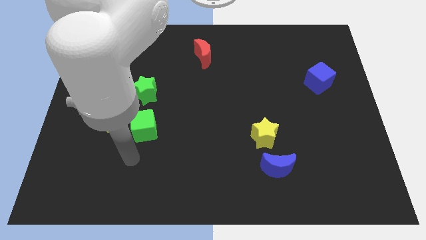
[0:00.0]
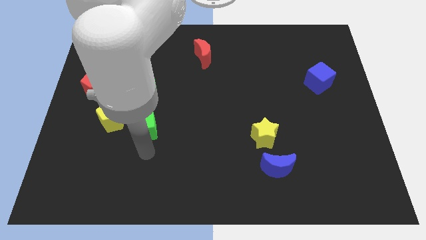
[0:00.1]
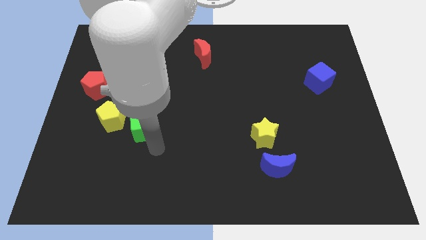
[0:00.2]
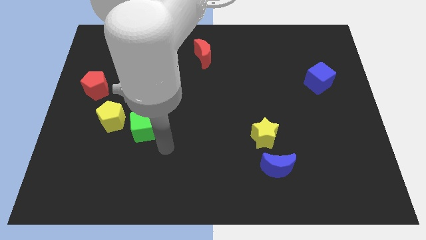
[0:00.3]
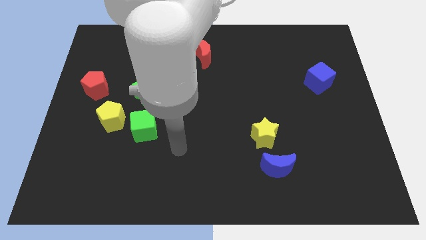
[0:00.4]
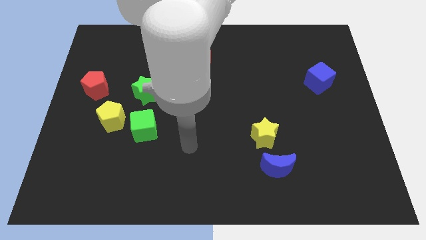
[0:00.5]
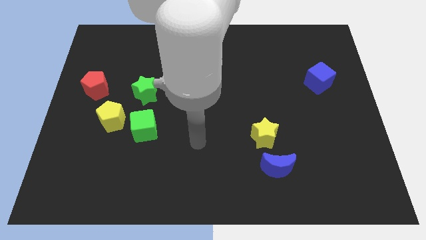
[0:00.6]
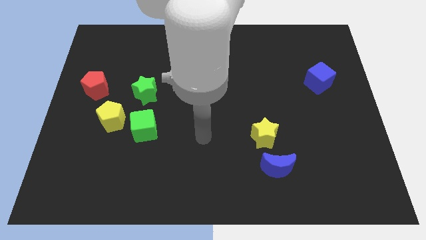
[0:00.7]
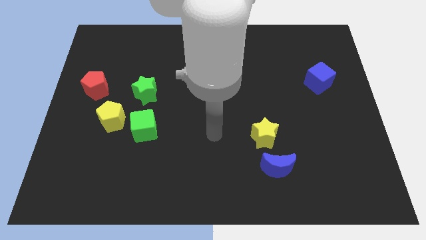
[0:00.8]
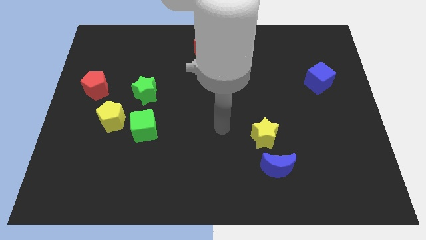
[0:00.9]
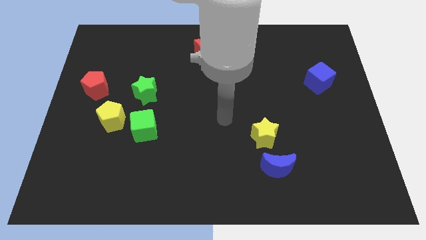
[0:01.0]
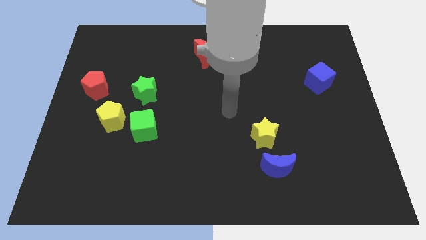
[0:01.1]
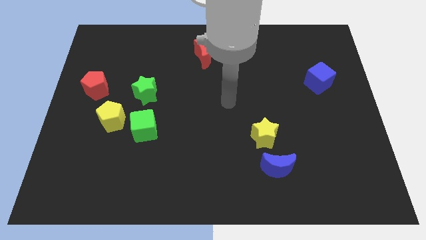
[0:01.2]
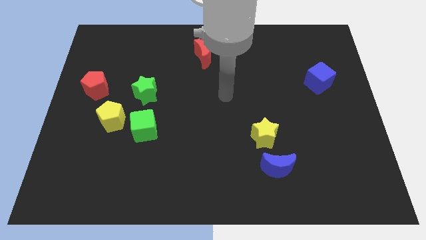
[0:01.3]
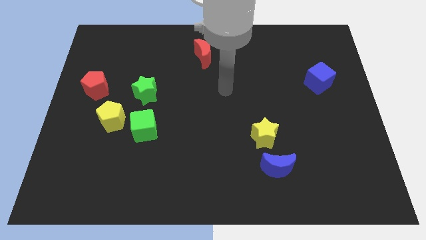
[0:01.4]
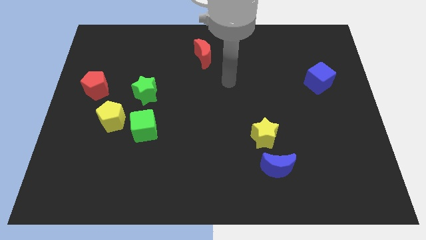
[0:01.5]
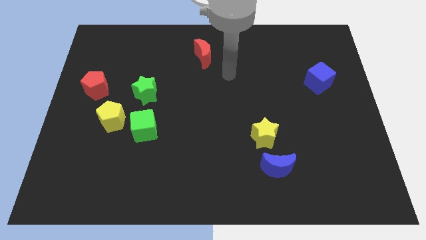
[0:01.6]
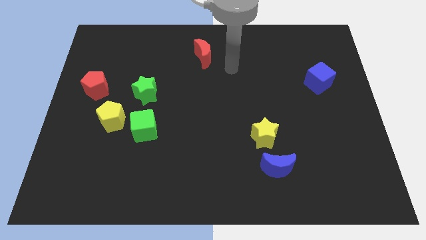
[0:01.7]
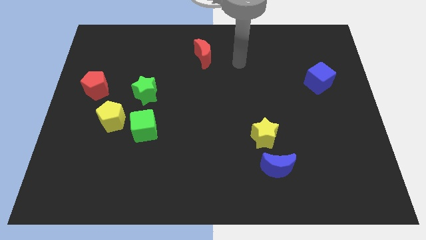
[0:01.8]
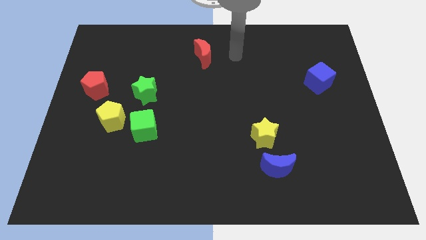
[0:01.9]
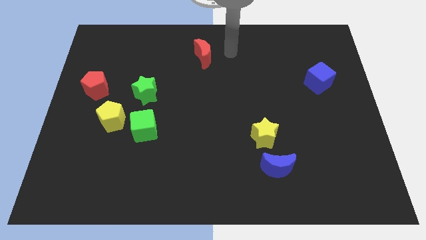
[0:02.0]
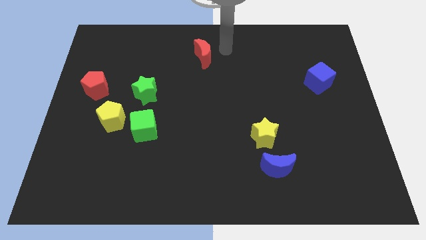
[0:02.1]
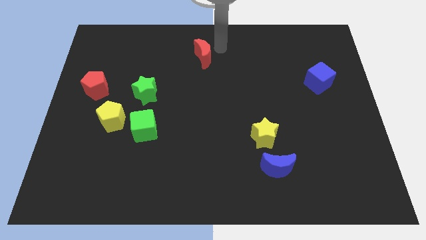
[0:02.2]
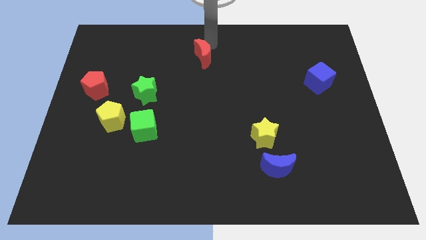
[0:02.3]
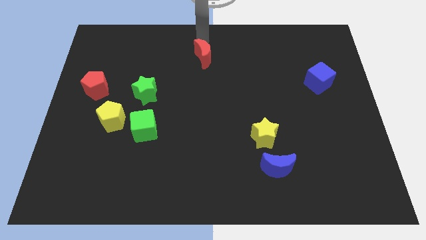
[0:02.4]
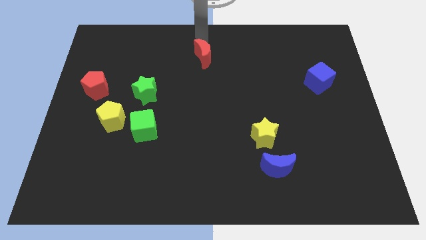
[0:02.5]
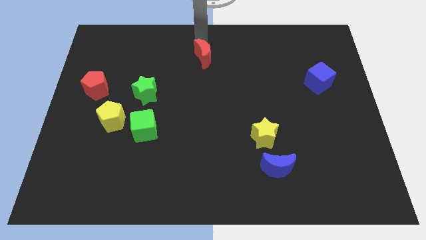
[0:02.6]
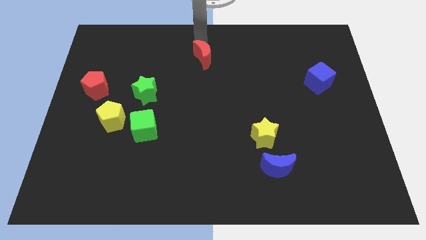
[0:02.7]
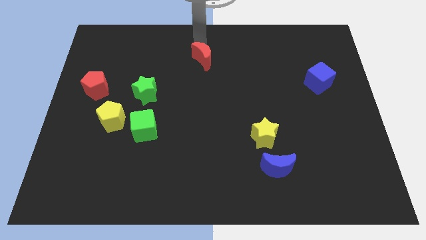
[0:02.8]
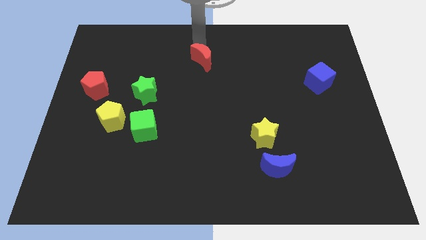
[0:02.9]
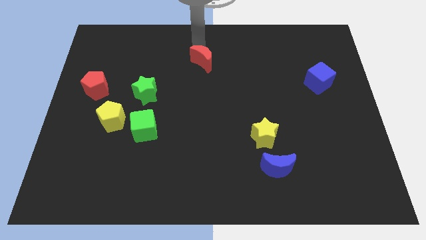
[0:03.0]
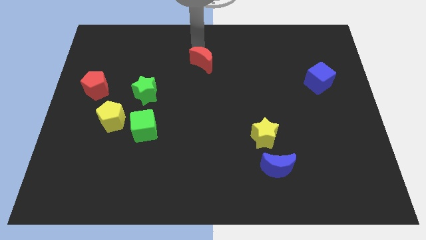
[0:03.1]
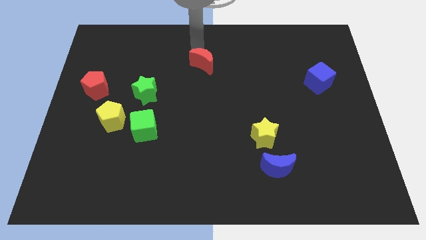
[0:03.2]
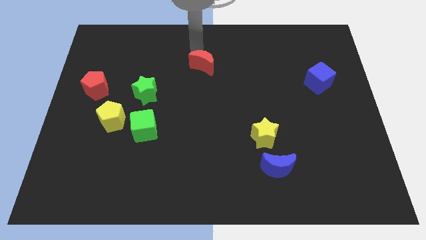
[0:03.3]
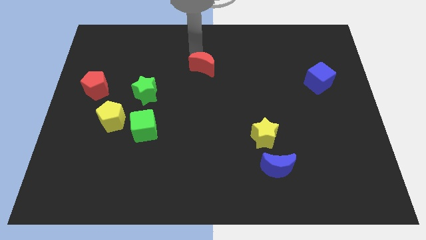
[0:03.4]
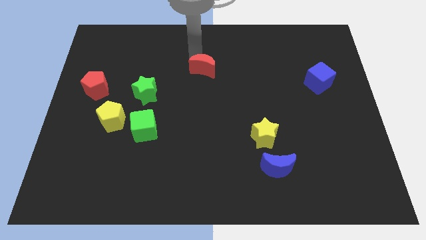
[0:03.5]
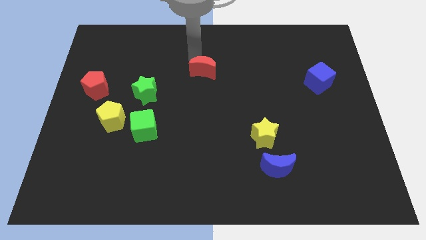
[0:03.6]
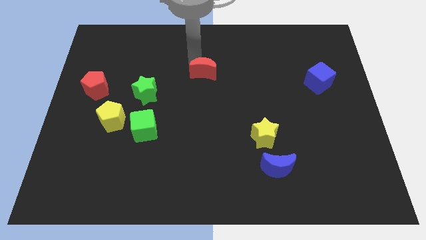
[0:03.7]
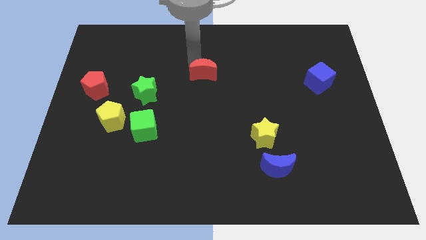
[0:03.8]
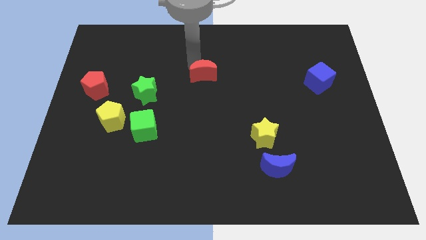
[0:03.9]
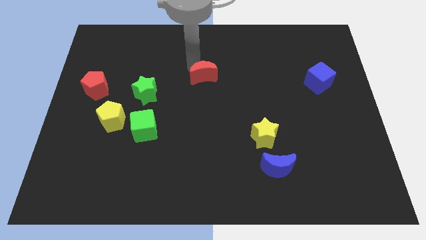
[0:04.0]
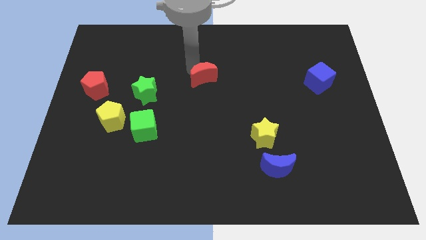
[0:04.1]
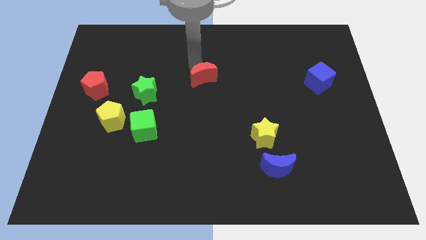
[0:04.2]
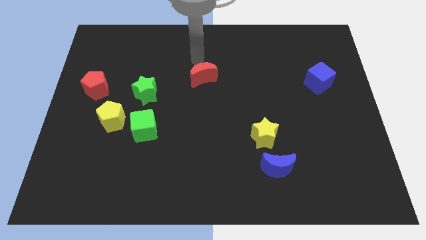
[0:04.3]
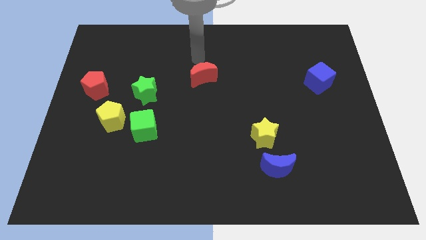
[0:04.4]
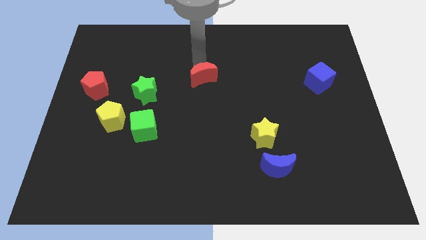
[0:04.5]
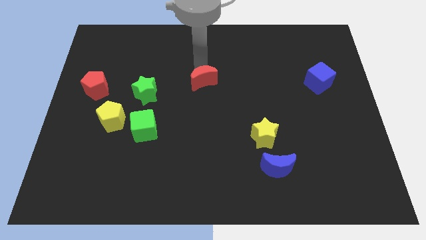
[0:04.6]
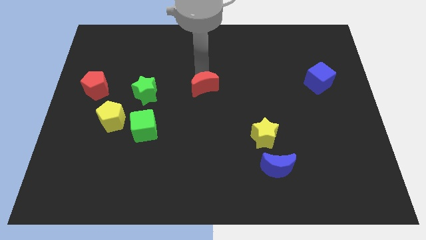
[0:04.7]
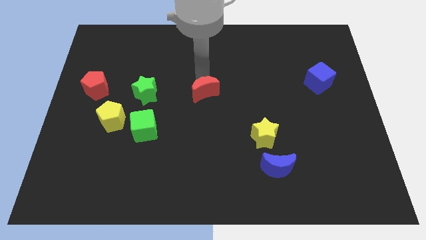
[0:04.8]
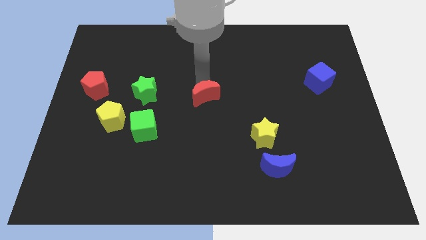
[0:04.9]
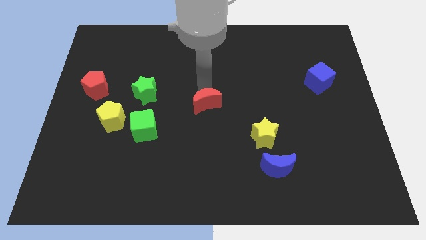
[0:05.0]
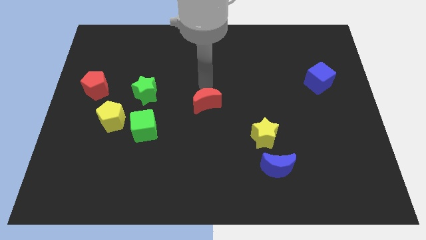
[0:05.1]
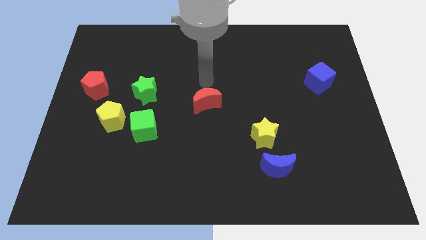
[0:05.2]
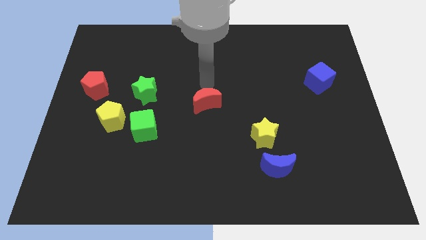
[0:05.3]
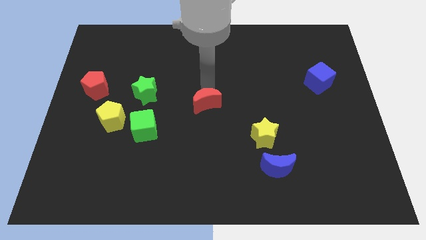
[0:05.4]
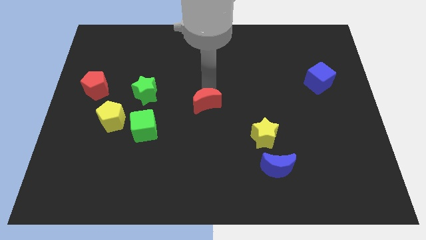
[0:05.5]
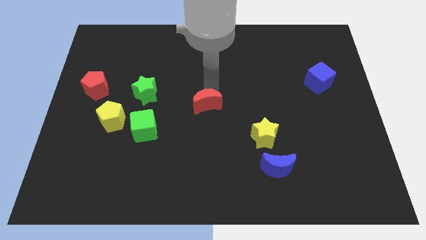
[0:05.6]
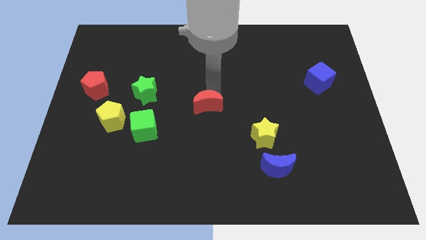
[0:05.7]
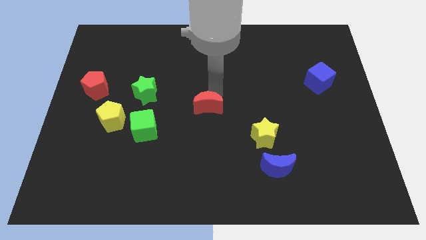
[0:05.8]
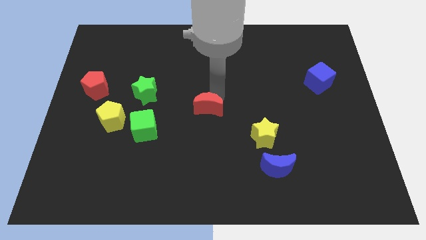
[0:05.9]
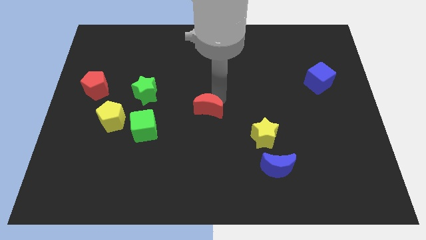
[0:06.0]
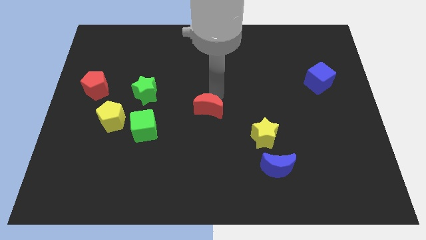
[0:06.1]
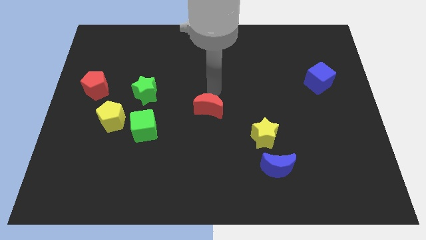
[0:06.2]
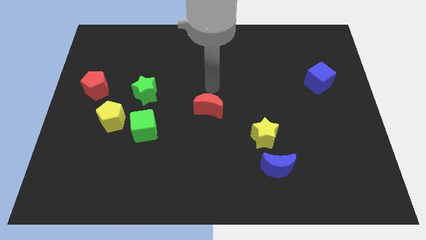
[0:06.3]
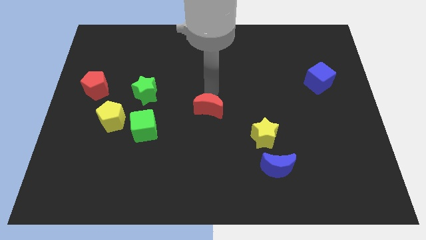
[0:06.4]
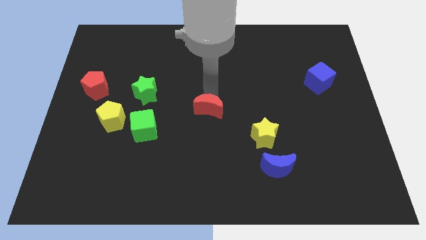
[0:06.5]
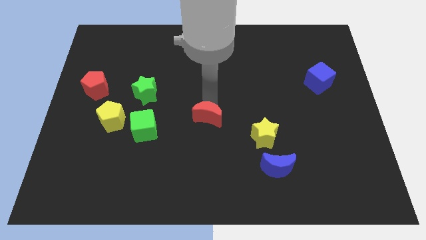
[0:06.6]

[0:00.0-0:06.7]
push the red moon downwards

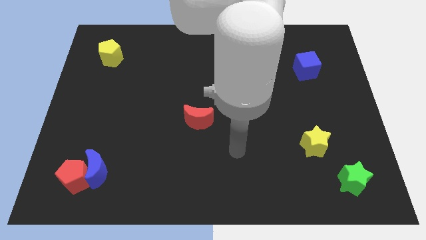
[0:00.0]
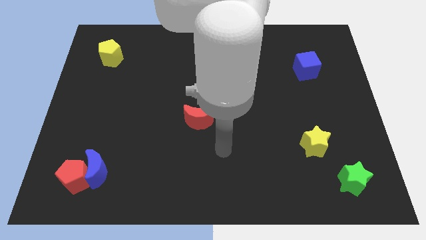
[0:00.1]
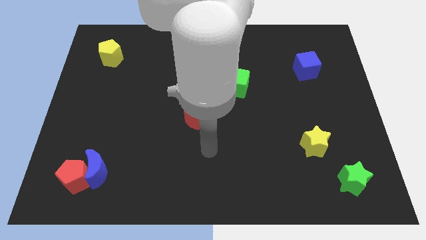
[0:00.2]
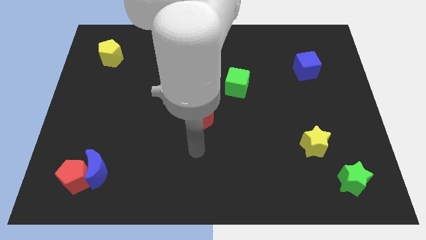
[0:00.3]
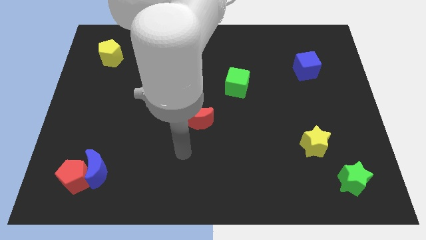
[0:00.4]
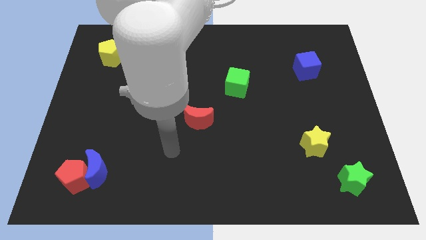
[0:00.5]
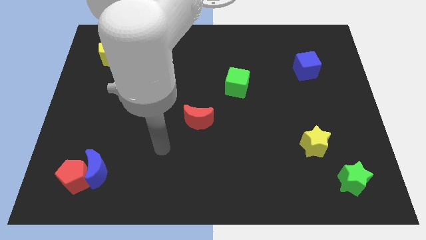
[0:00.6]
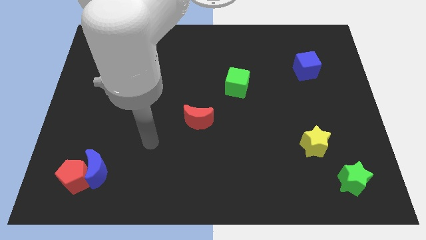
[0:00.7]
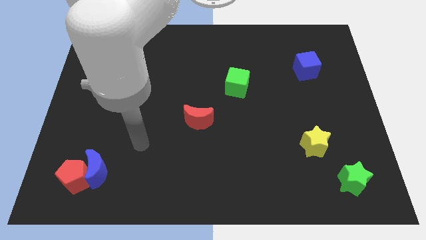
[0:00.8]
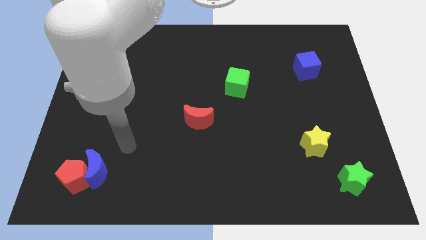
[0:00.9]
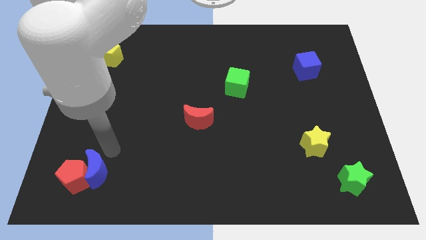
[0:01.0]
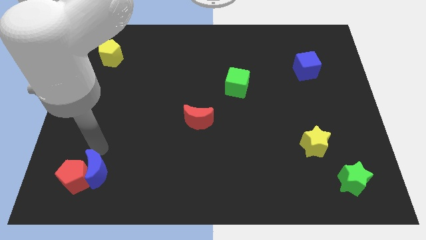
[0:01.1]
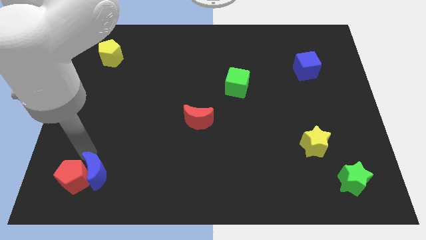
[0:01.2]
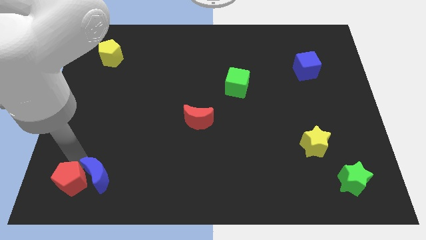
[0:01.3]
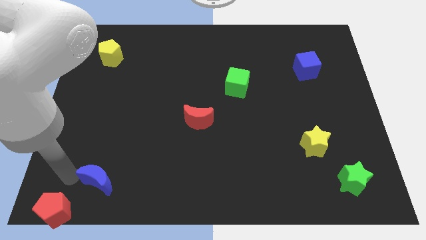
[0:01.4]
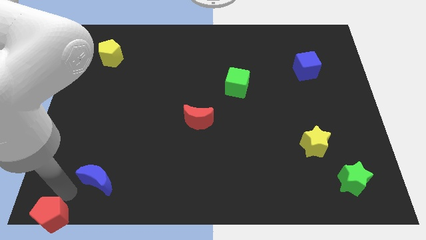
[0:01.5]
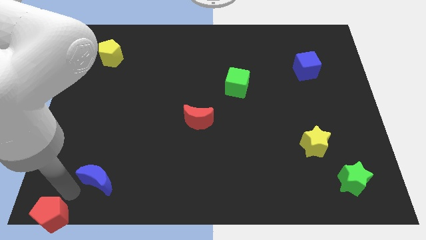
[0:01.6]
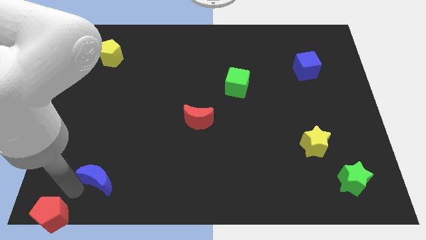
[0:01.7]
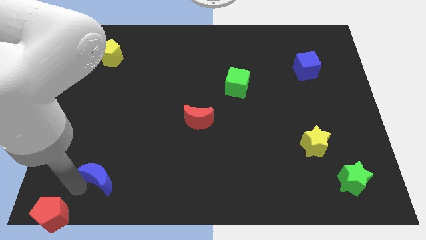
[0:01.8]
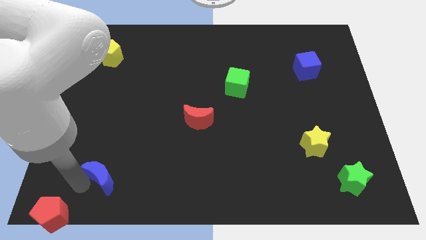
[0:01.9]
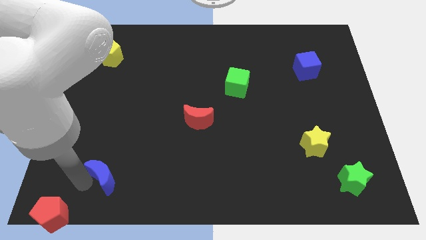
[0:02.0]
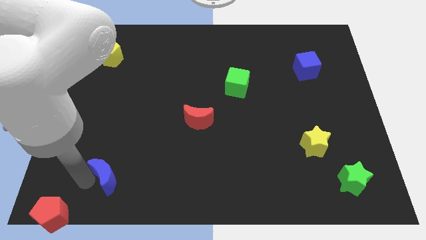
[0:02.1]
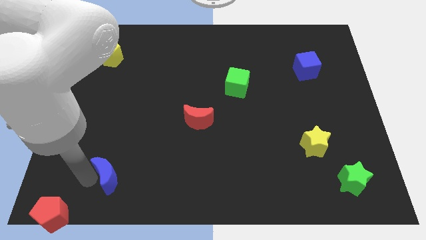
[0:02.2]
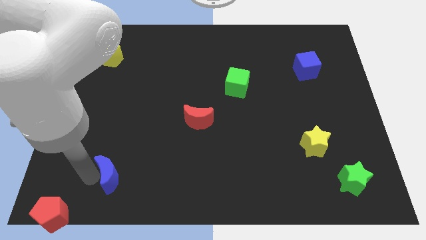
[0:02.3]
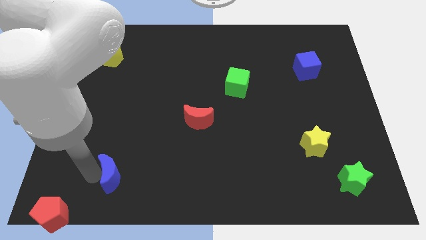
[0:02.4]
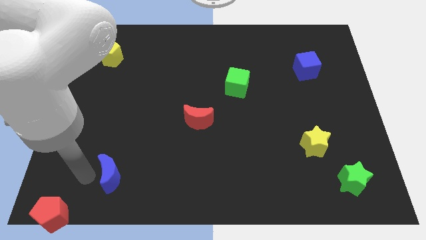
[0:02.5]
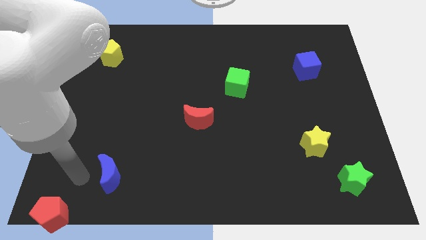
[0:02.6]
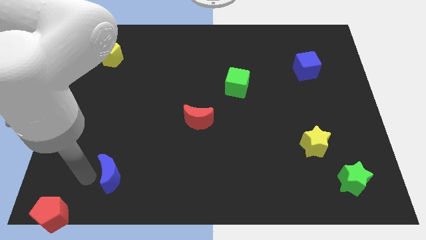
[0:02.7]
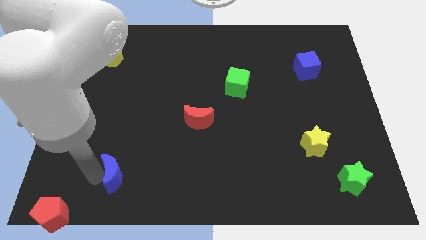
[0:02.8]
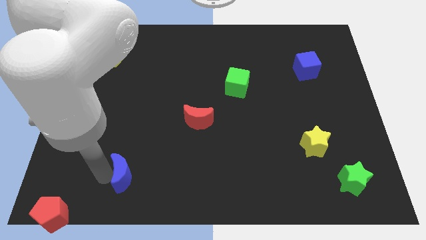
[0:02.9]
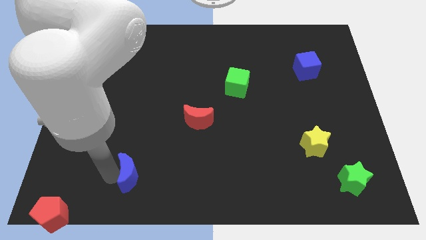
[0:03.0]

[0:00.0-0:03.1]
slightly push the blue moon to the right
